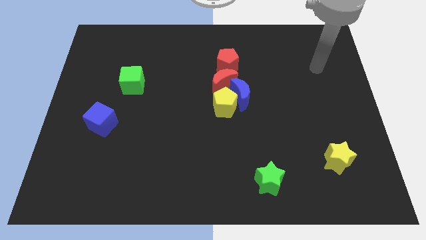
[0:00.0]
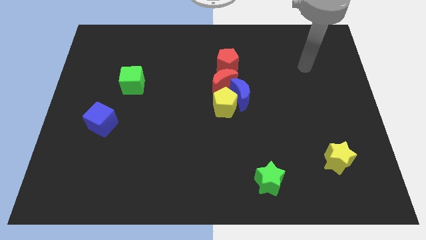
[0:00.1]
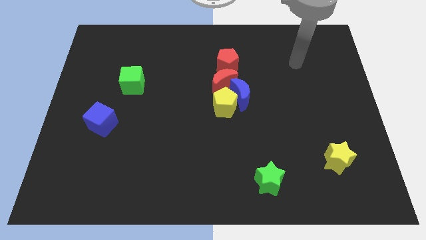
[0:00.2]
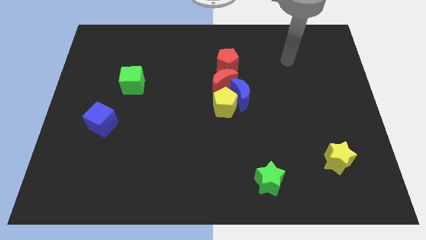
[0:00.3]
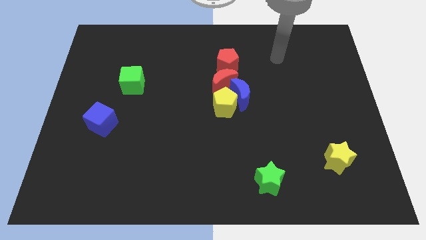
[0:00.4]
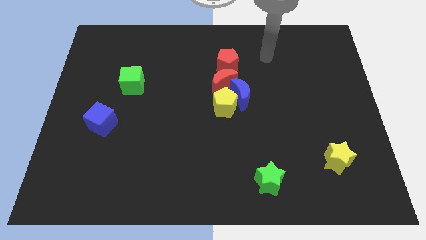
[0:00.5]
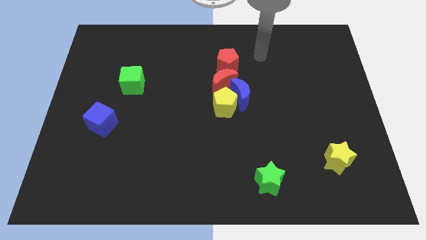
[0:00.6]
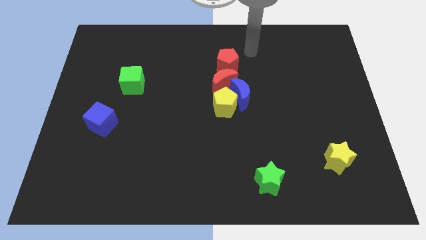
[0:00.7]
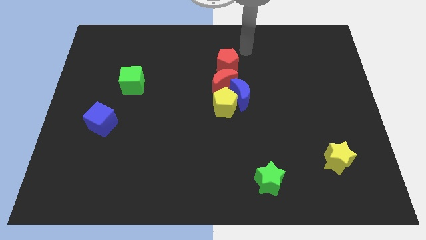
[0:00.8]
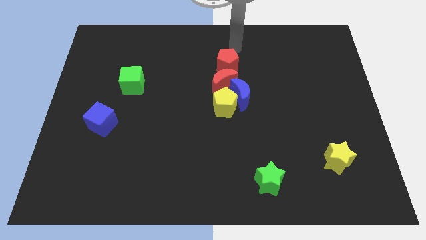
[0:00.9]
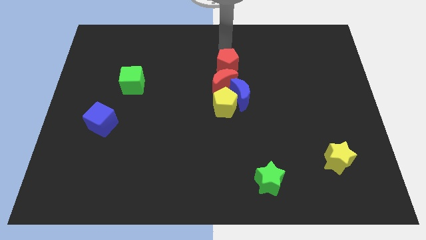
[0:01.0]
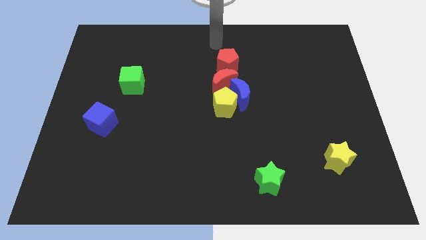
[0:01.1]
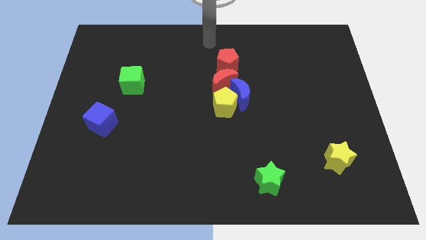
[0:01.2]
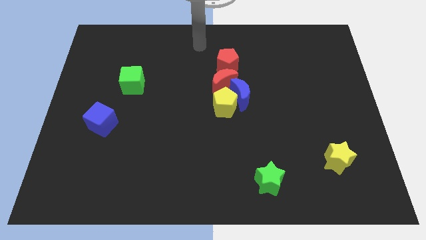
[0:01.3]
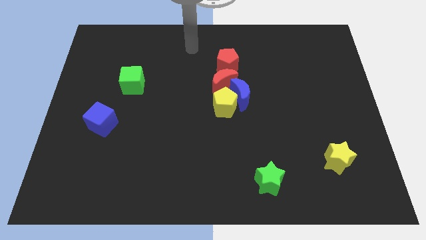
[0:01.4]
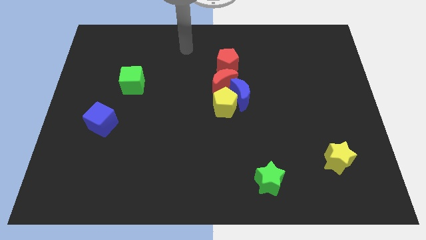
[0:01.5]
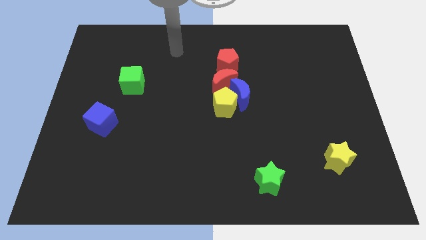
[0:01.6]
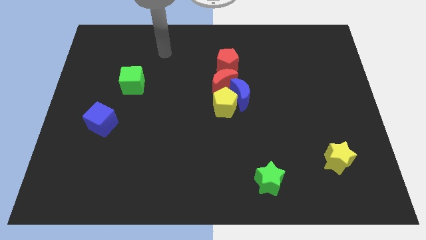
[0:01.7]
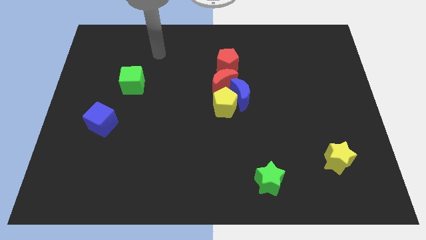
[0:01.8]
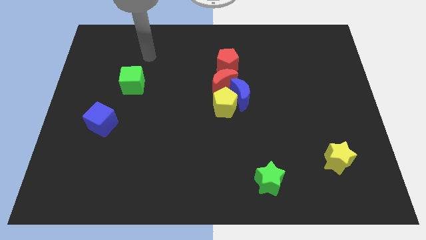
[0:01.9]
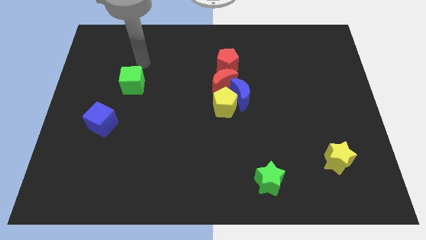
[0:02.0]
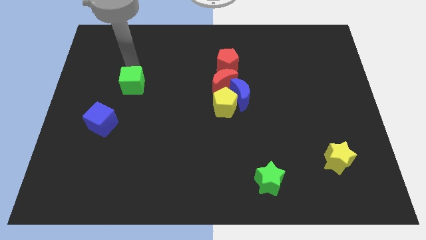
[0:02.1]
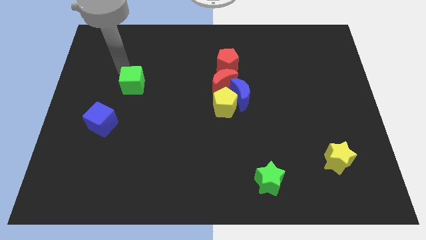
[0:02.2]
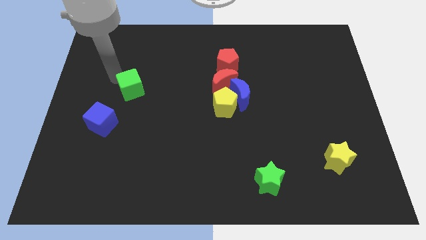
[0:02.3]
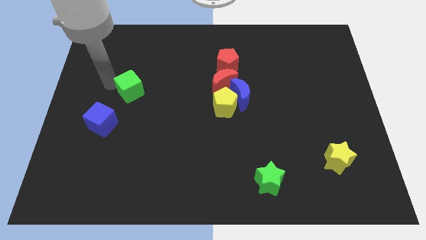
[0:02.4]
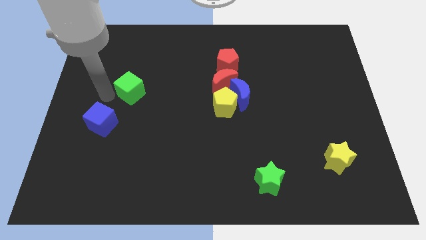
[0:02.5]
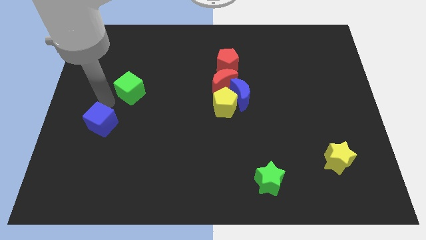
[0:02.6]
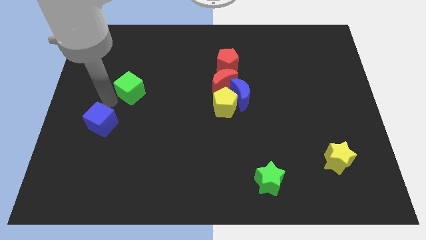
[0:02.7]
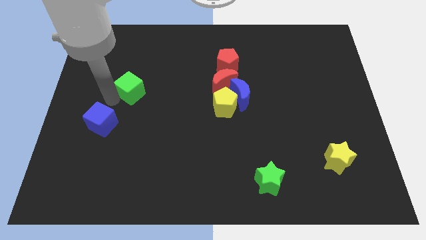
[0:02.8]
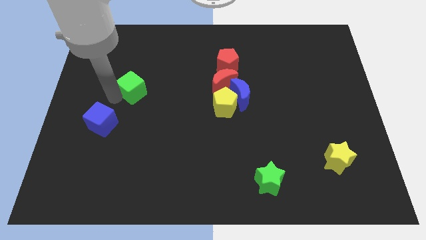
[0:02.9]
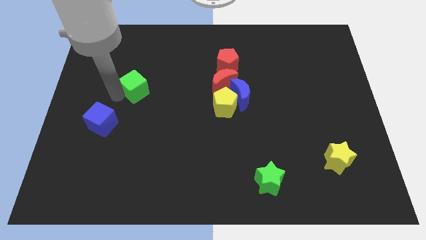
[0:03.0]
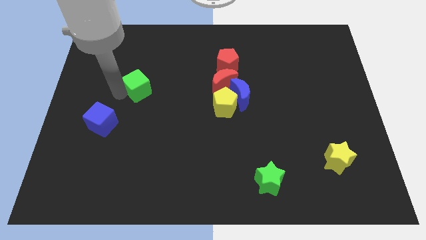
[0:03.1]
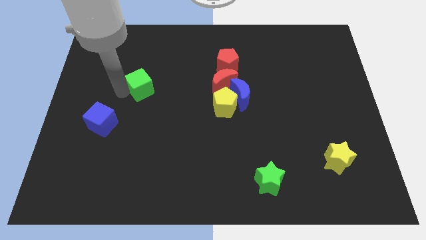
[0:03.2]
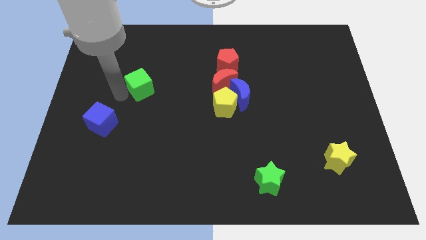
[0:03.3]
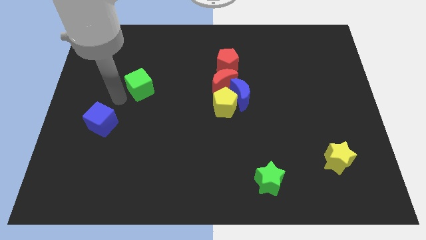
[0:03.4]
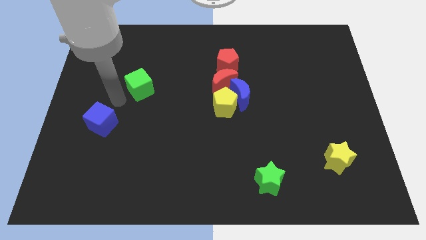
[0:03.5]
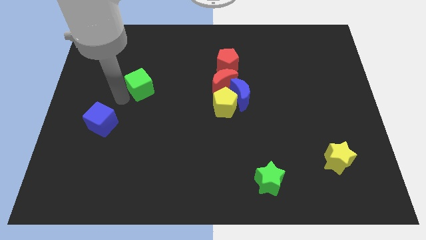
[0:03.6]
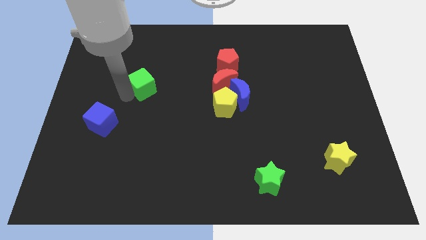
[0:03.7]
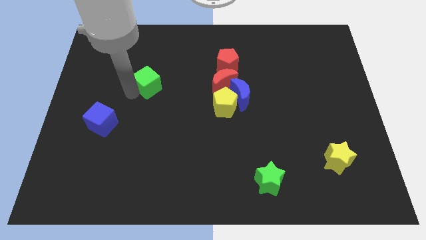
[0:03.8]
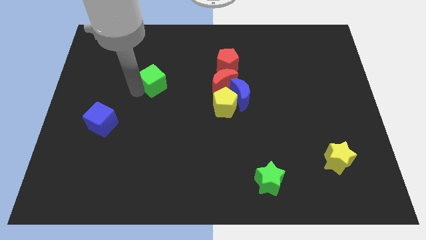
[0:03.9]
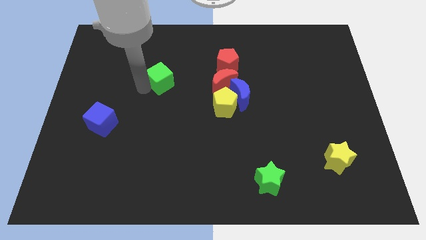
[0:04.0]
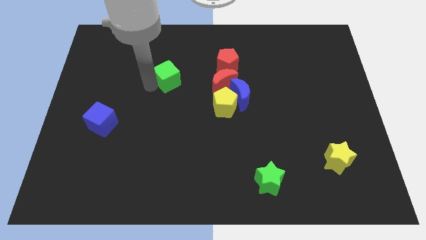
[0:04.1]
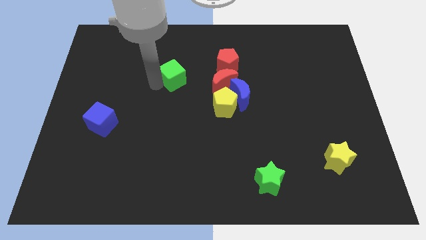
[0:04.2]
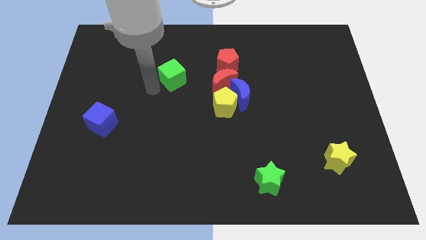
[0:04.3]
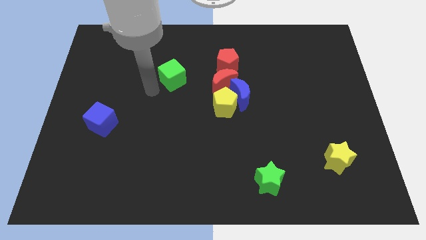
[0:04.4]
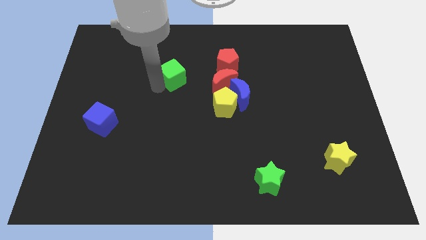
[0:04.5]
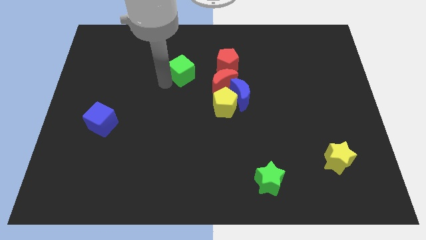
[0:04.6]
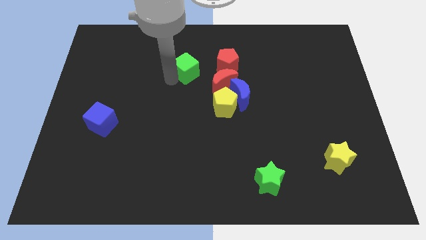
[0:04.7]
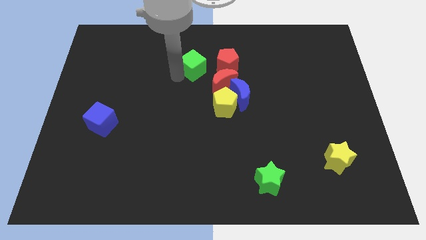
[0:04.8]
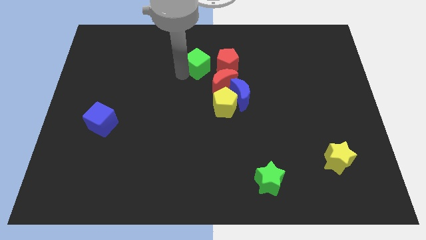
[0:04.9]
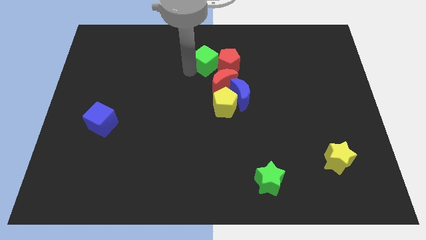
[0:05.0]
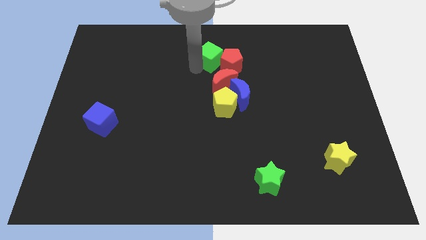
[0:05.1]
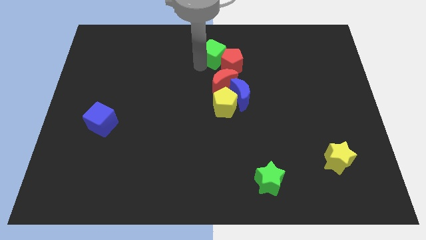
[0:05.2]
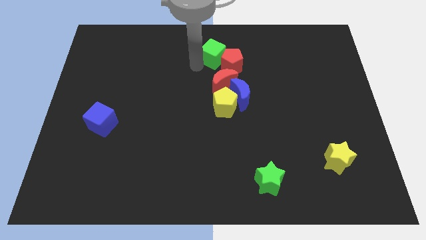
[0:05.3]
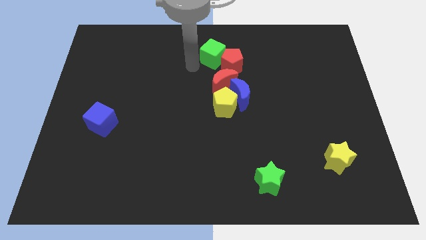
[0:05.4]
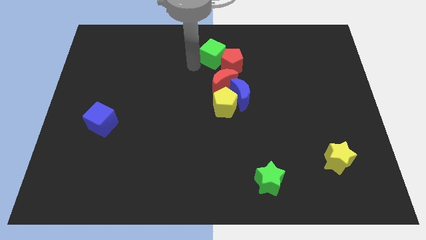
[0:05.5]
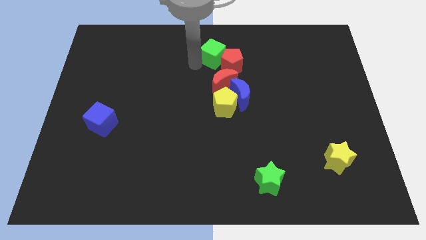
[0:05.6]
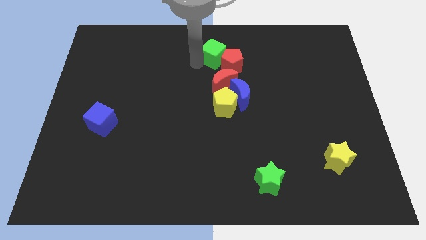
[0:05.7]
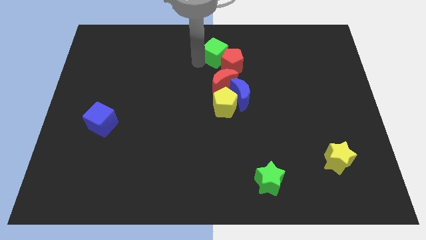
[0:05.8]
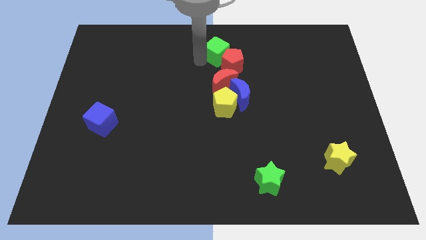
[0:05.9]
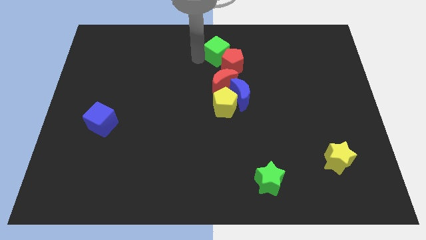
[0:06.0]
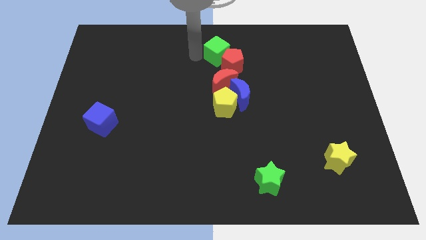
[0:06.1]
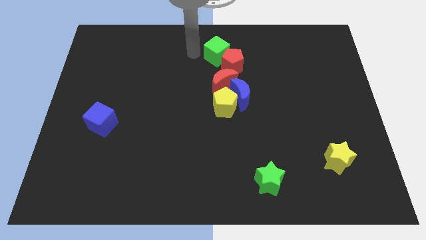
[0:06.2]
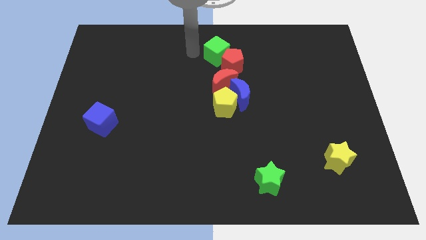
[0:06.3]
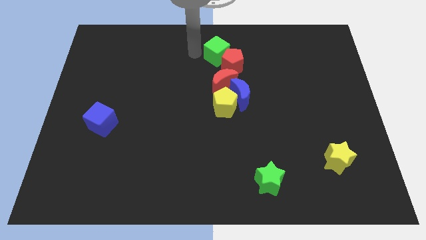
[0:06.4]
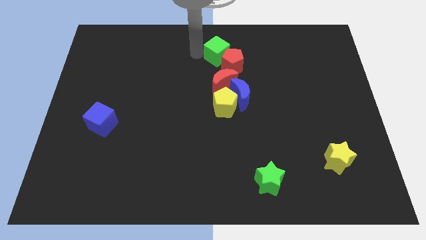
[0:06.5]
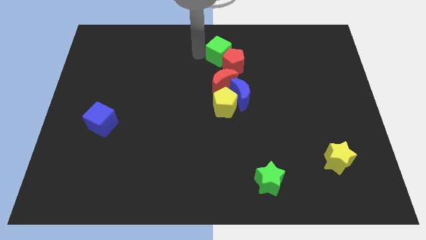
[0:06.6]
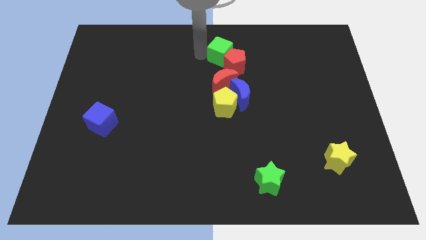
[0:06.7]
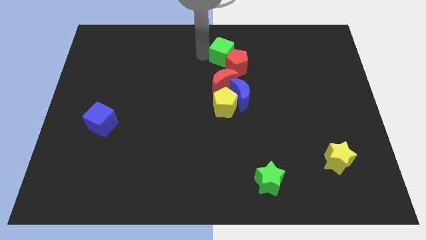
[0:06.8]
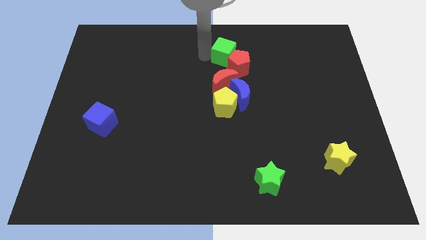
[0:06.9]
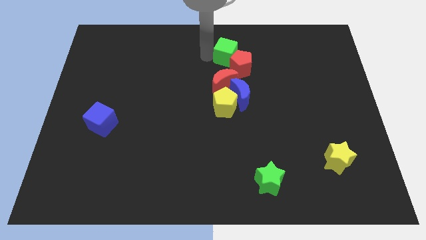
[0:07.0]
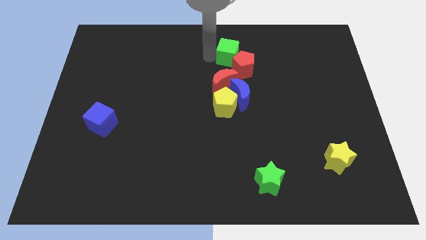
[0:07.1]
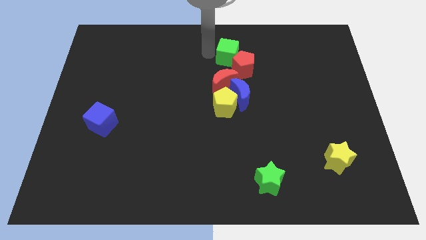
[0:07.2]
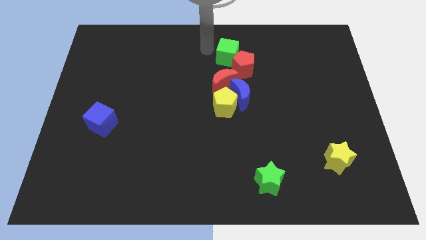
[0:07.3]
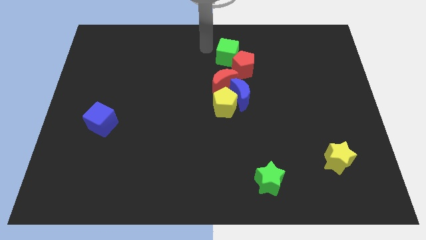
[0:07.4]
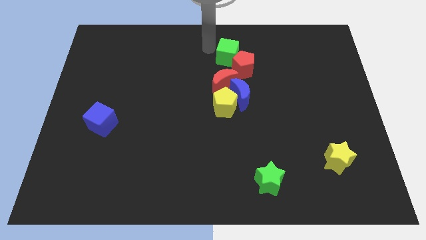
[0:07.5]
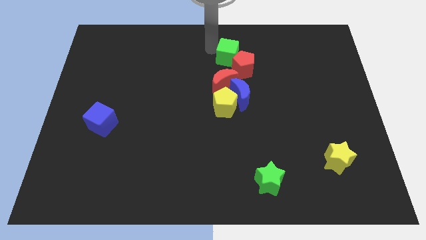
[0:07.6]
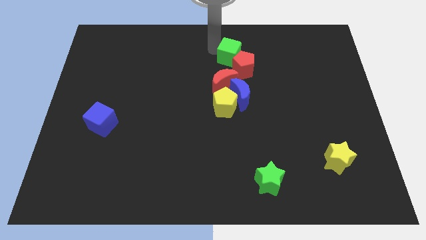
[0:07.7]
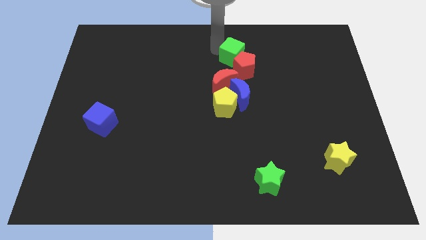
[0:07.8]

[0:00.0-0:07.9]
push the green cube right

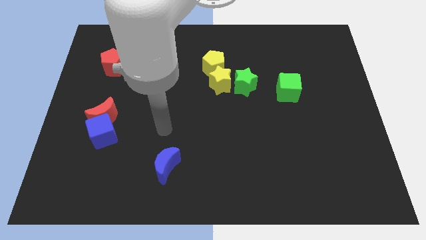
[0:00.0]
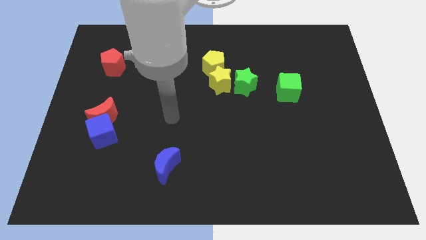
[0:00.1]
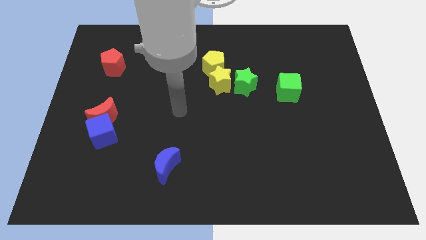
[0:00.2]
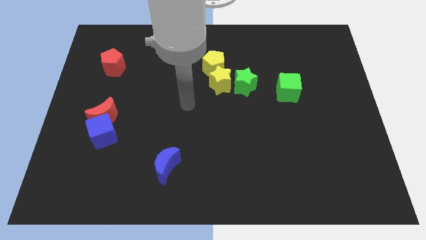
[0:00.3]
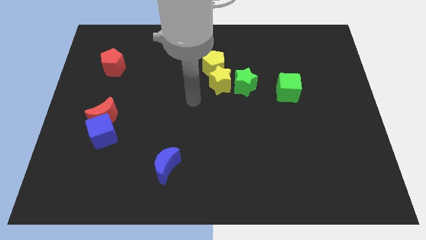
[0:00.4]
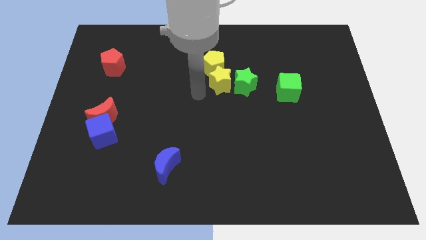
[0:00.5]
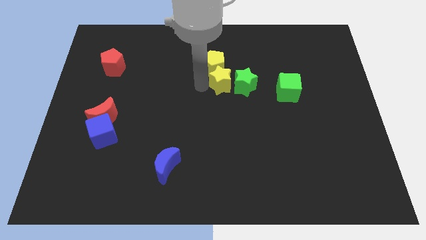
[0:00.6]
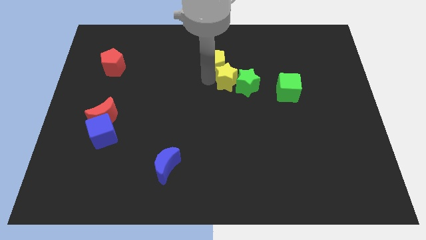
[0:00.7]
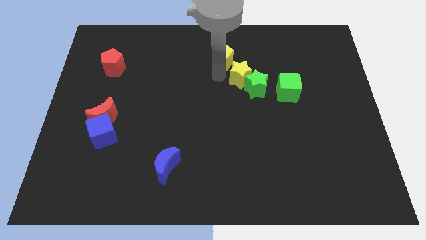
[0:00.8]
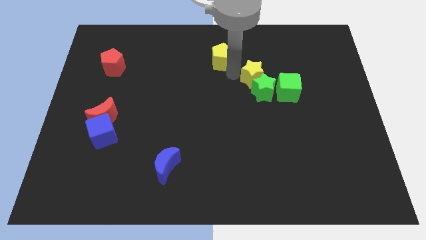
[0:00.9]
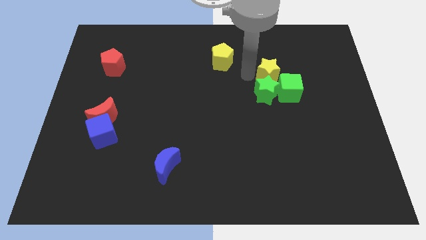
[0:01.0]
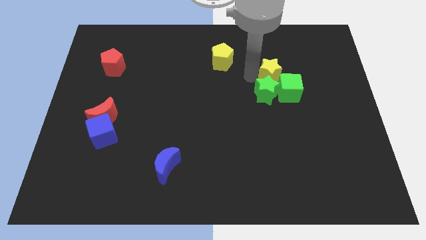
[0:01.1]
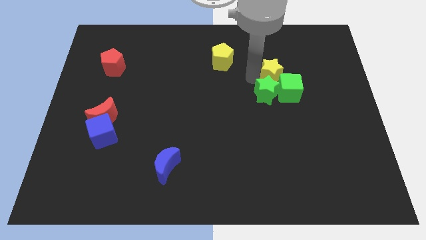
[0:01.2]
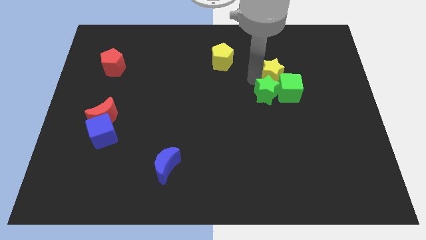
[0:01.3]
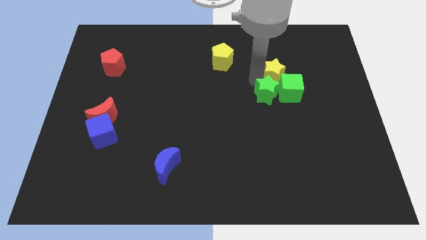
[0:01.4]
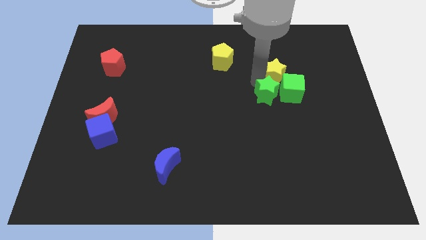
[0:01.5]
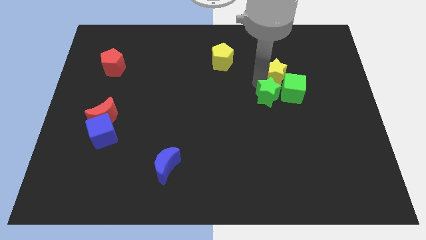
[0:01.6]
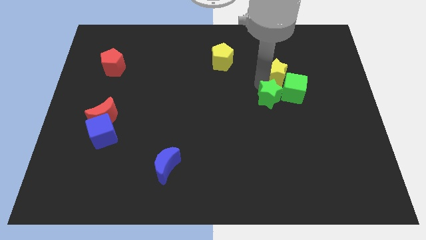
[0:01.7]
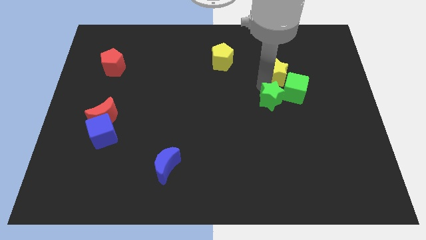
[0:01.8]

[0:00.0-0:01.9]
slide the green star diagonally downwards and to the right a little
